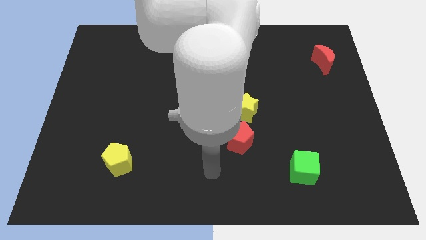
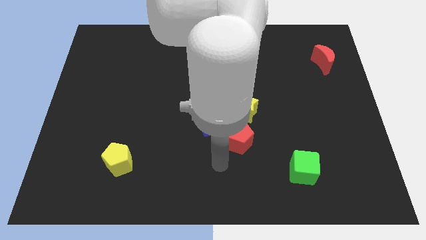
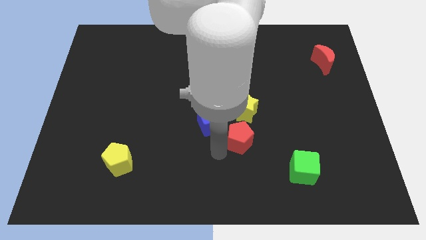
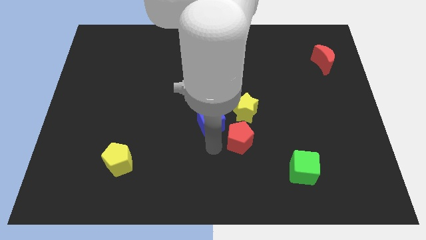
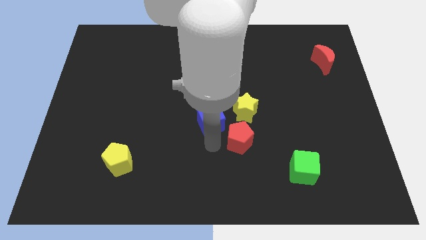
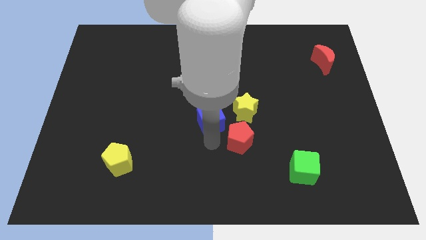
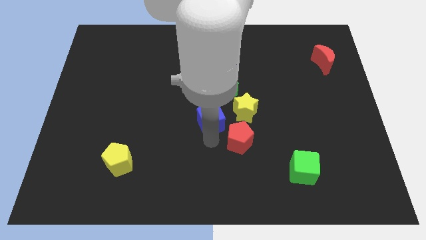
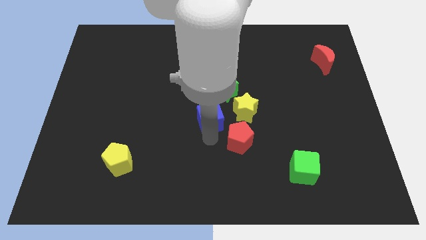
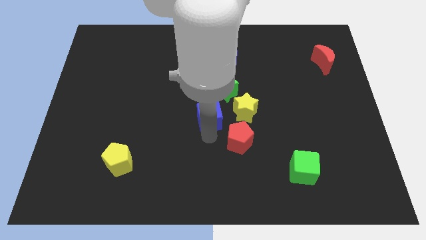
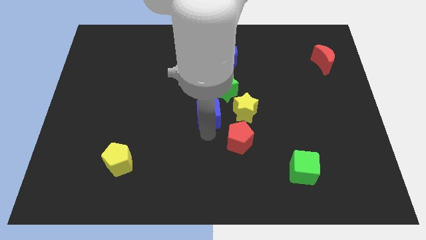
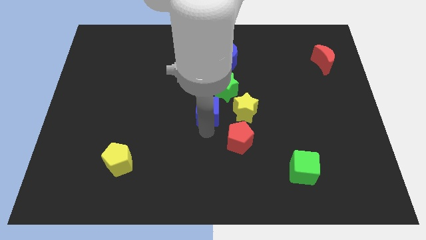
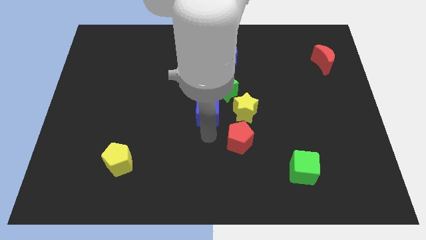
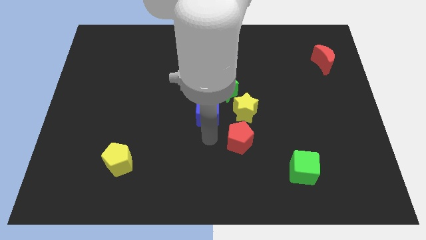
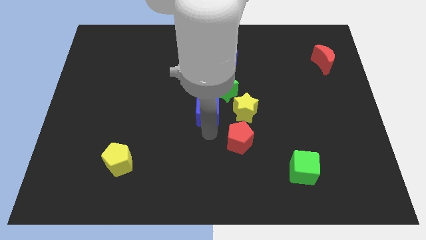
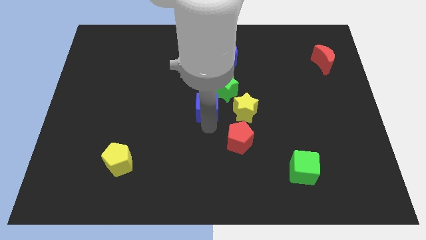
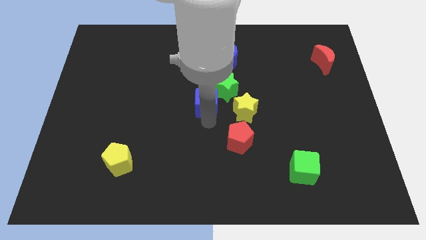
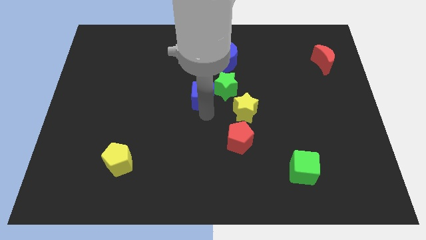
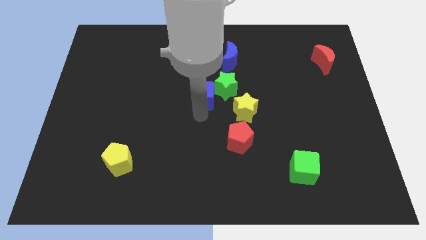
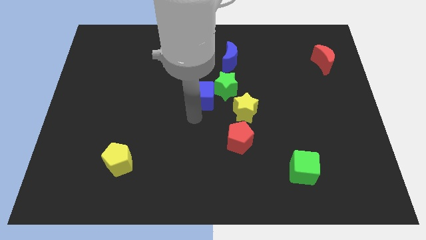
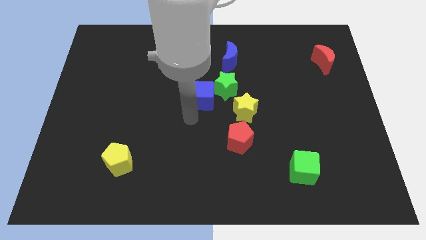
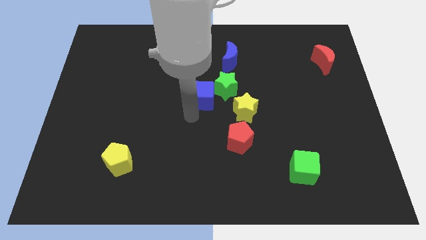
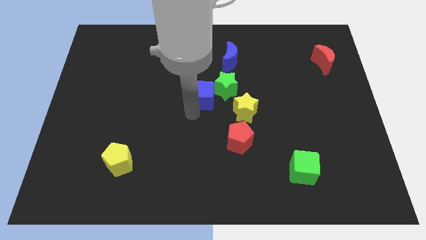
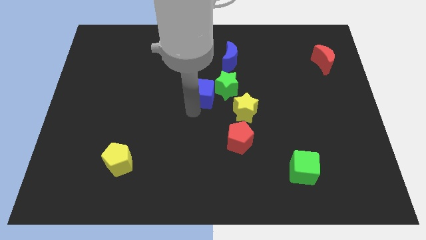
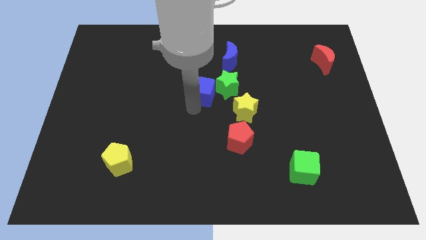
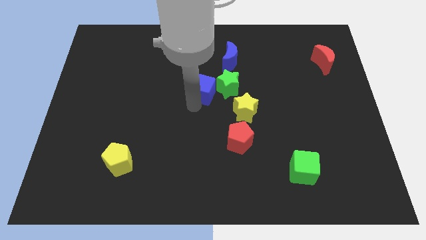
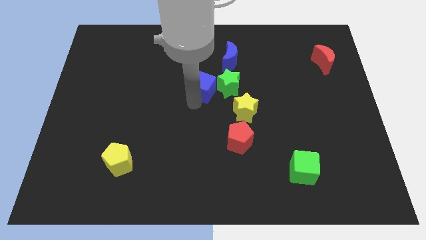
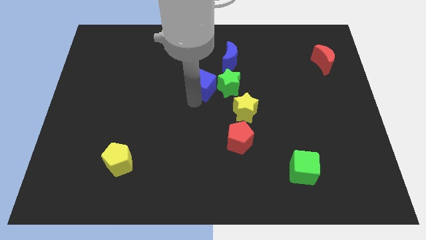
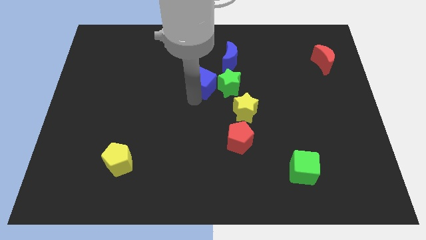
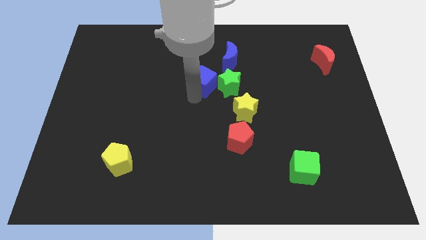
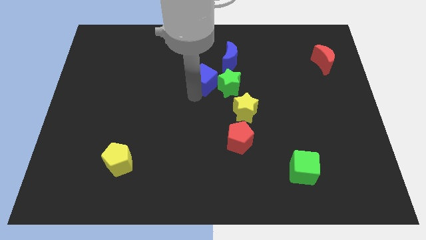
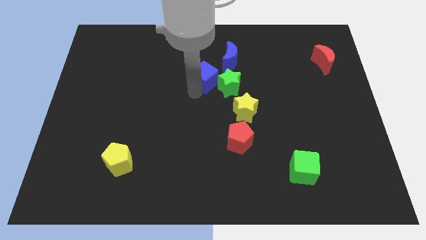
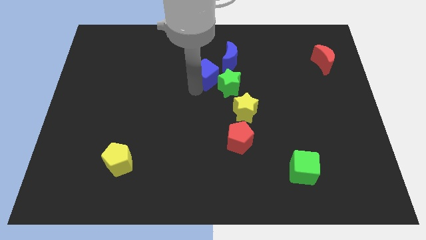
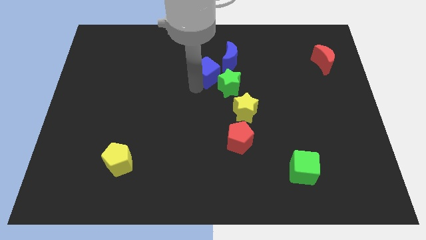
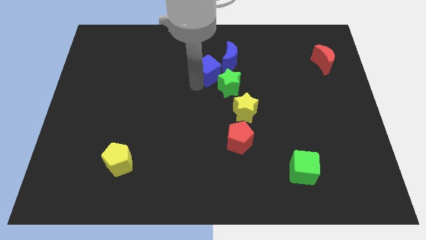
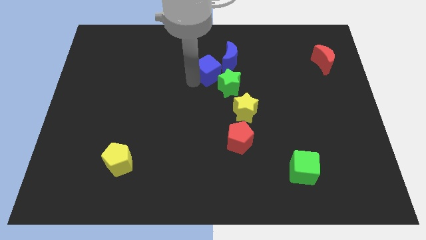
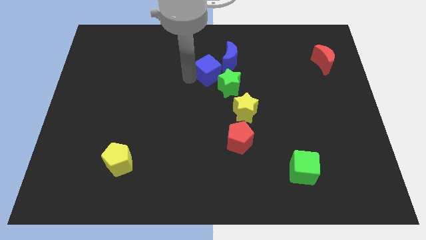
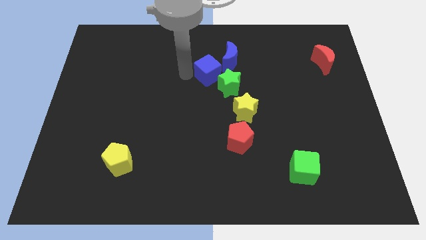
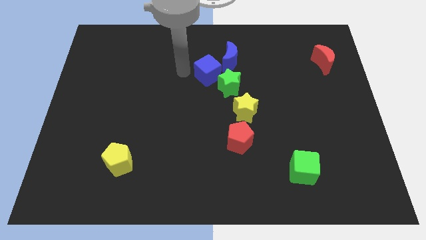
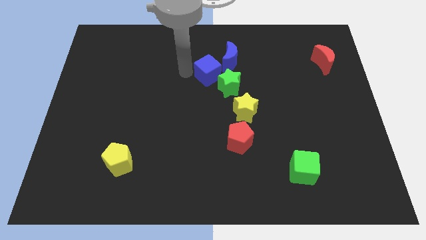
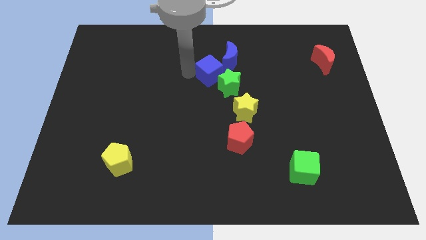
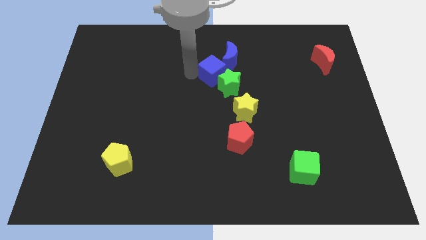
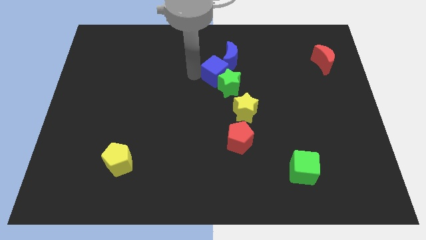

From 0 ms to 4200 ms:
slide the blue cube slightly diagonally upwards and right

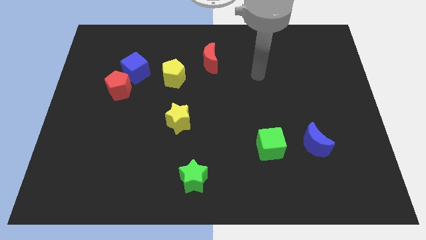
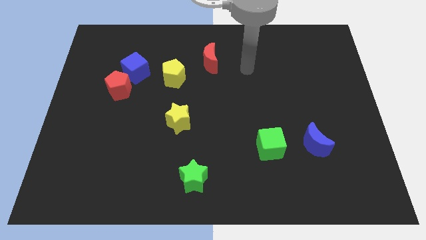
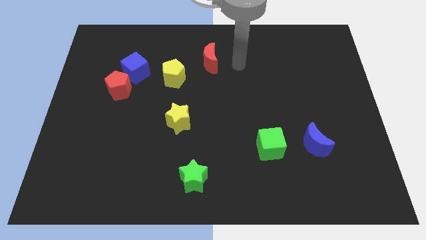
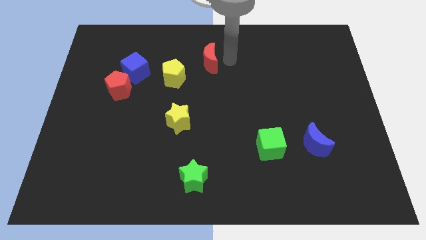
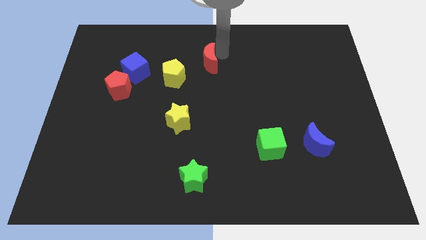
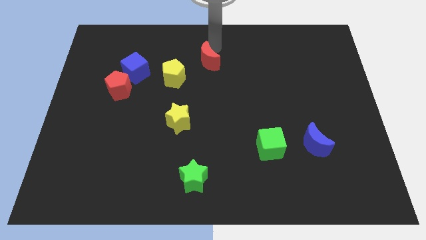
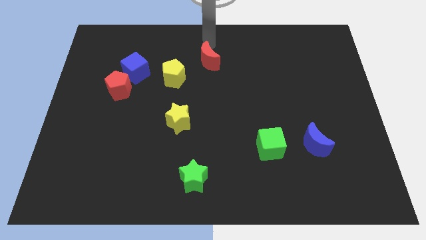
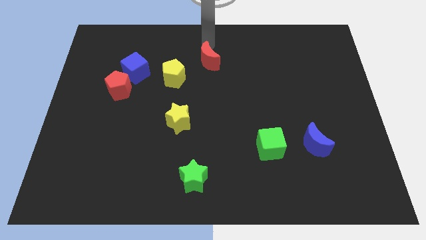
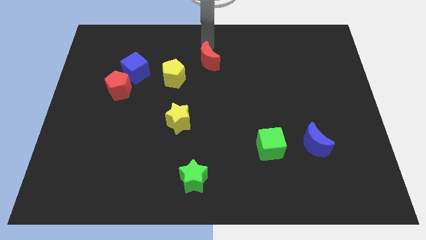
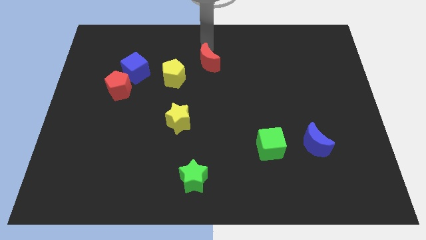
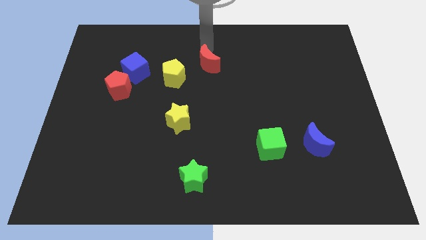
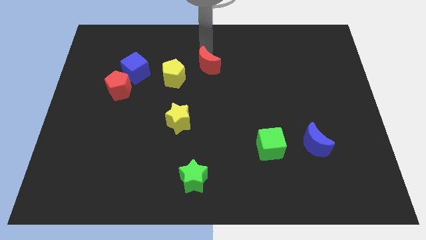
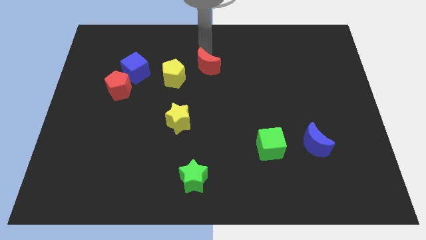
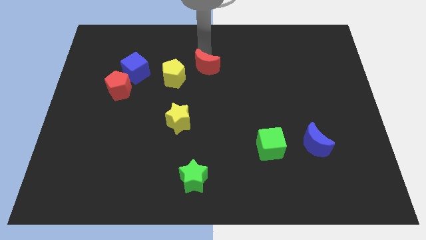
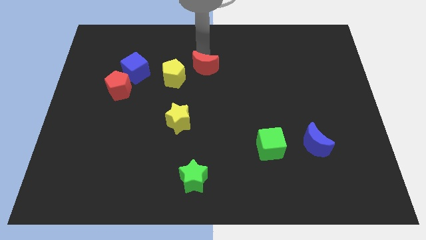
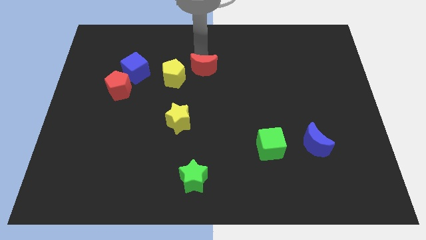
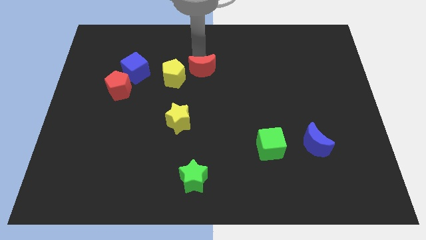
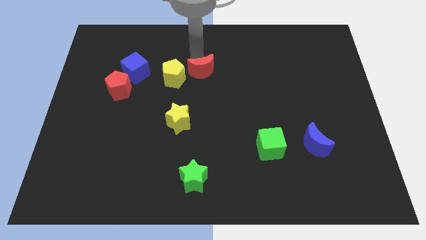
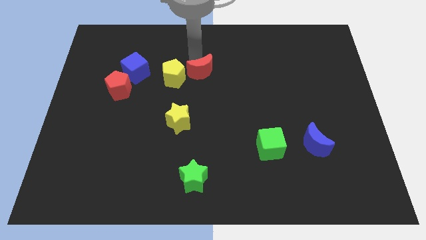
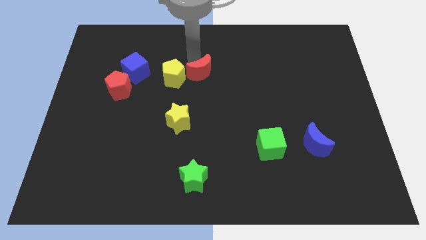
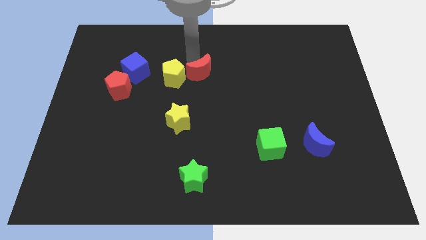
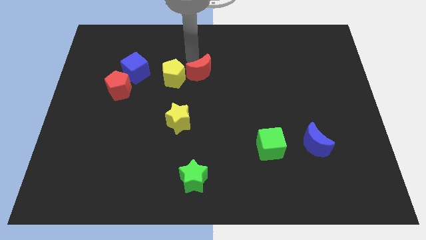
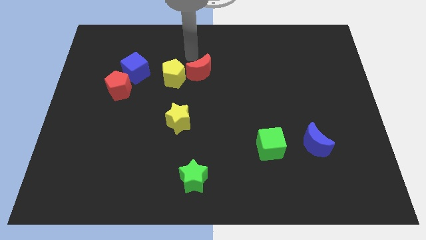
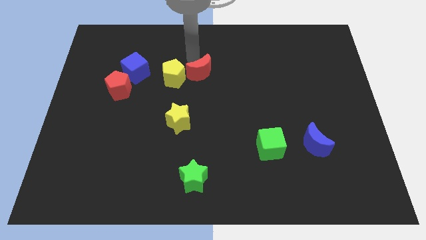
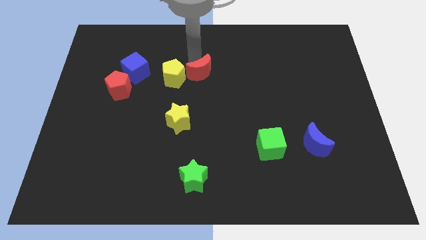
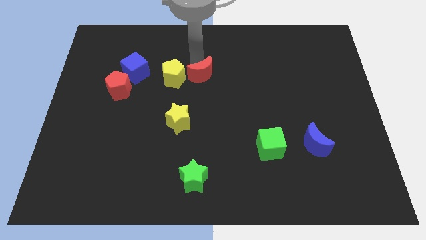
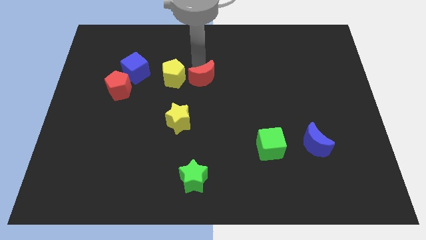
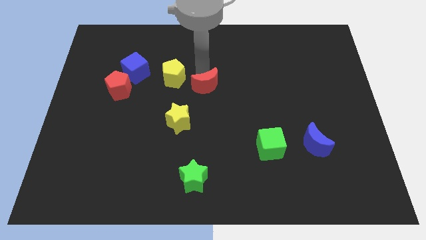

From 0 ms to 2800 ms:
slightly push the red moon down

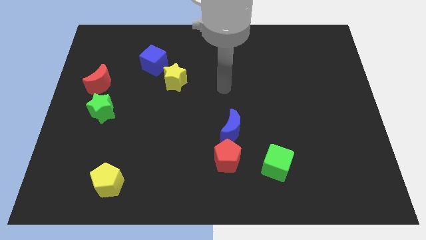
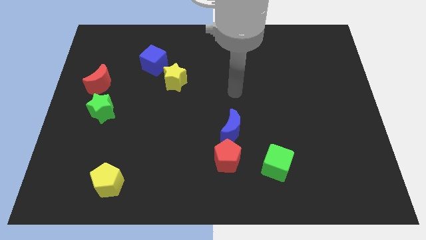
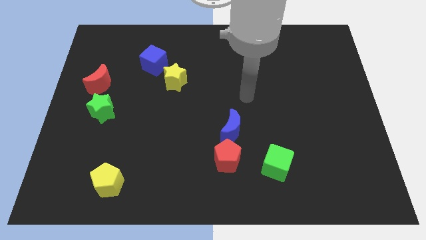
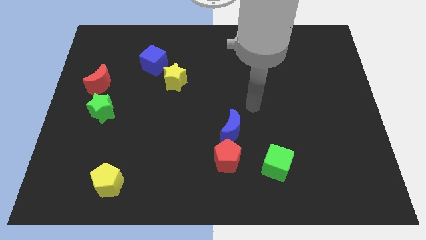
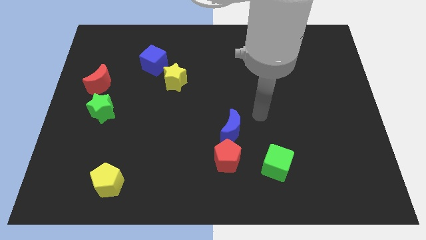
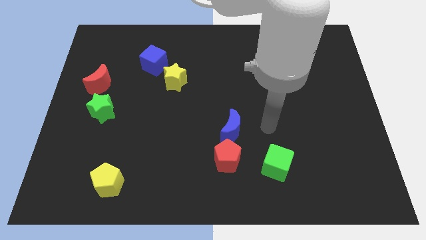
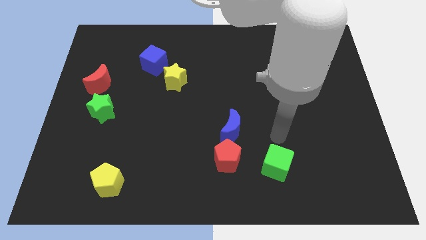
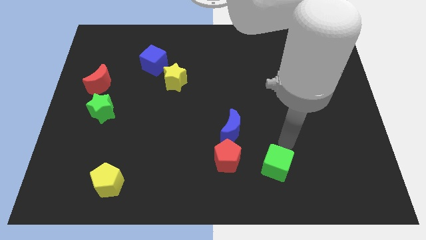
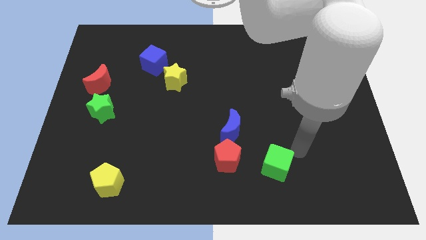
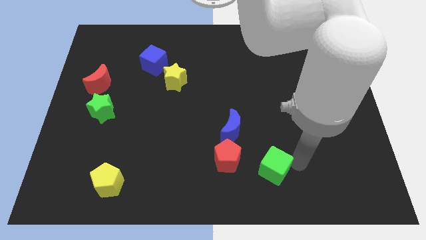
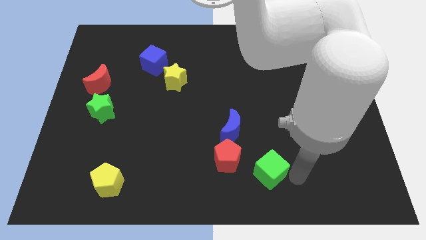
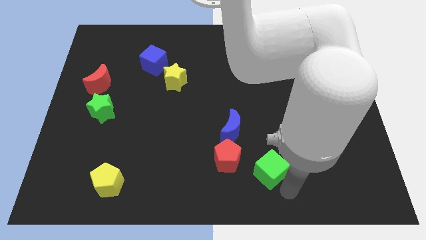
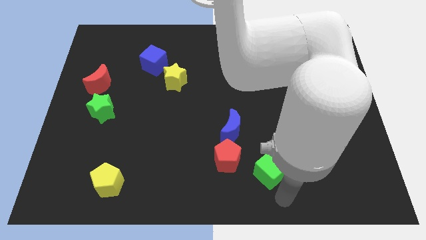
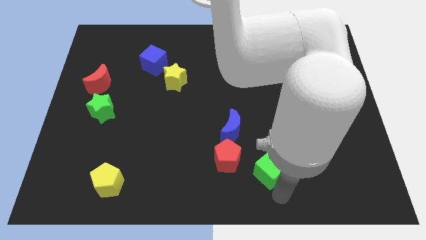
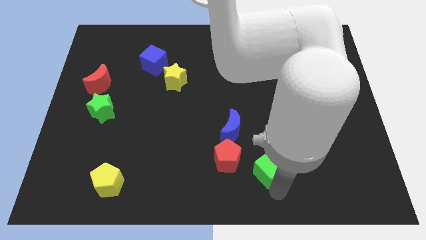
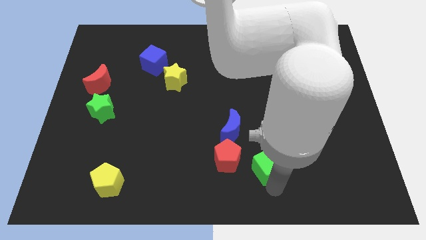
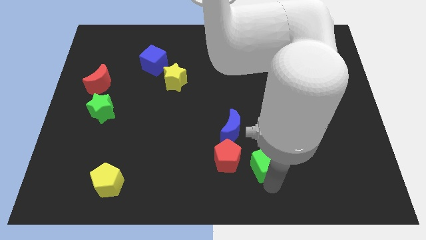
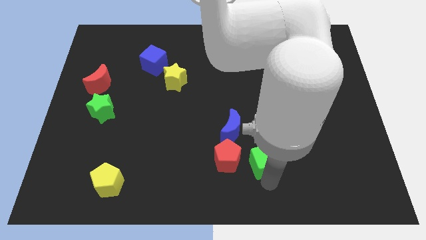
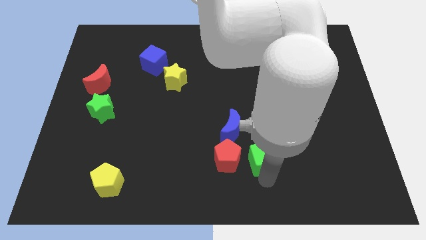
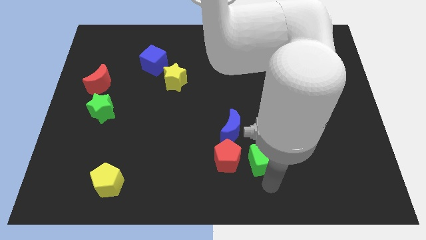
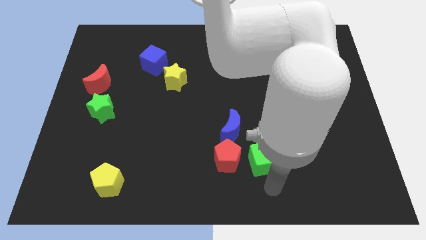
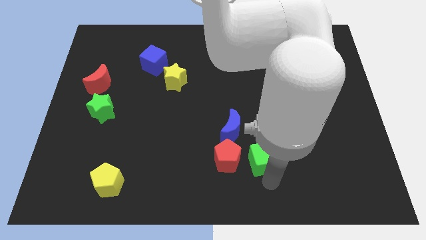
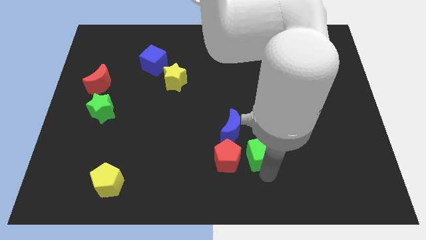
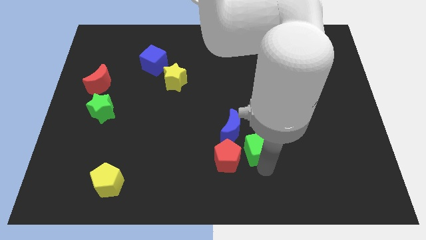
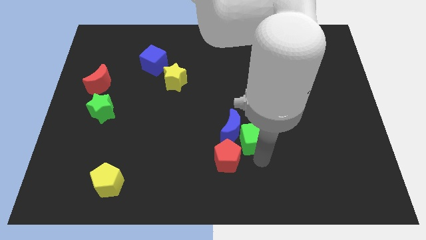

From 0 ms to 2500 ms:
push the green cube a little bit up and then to the left
